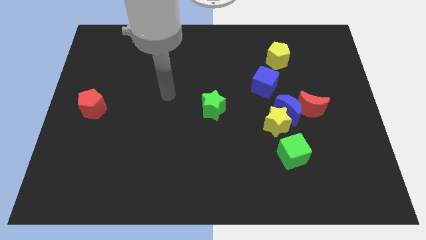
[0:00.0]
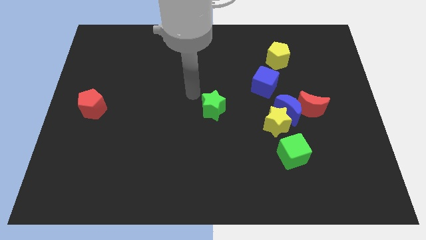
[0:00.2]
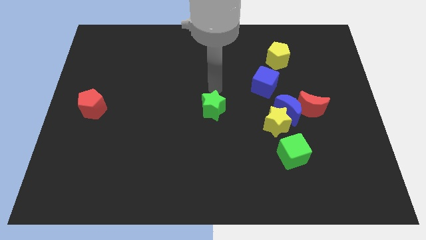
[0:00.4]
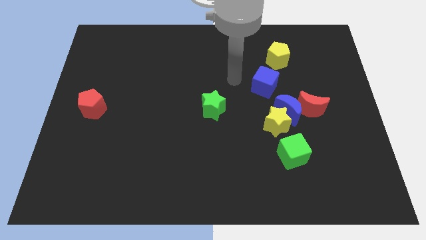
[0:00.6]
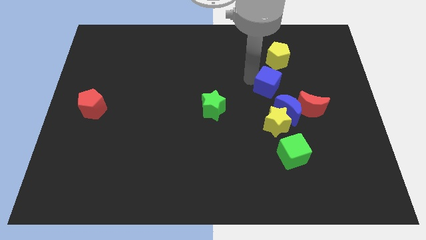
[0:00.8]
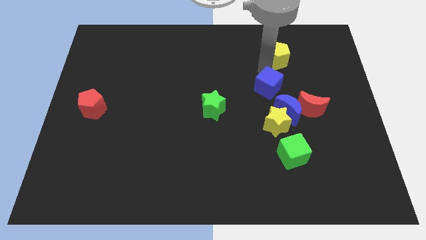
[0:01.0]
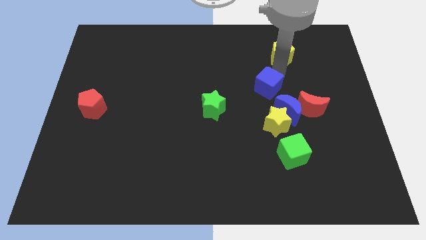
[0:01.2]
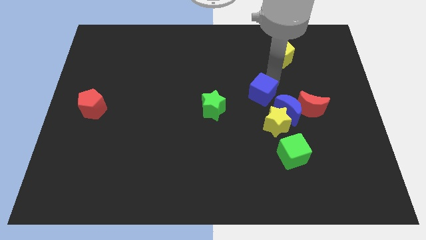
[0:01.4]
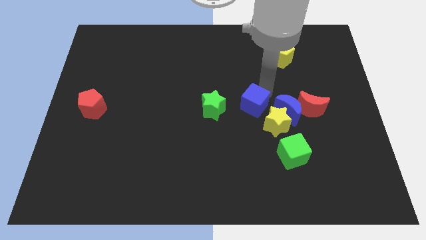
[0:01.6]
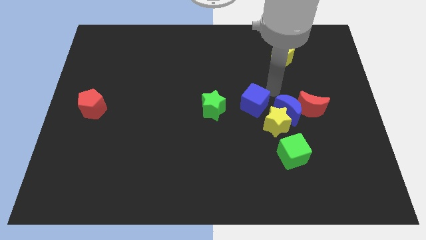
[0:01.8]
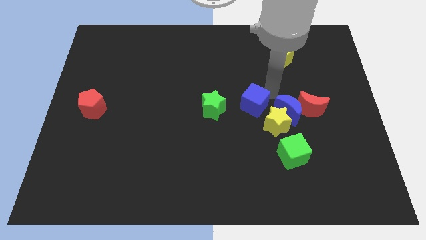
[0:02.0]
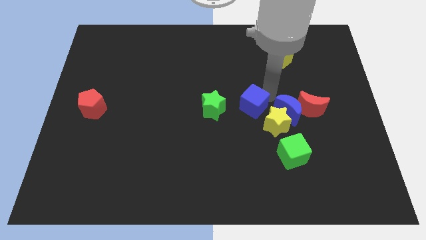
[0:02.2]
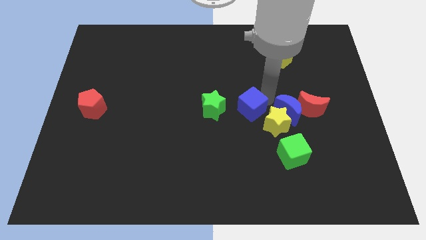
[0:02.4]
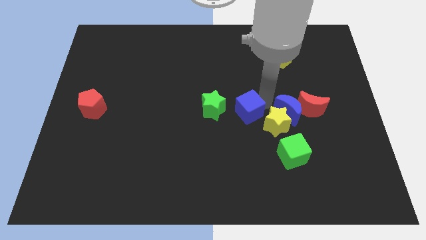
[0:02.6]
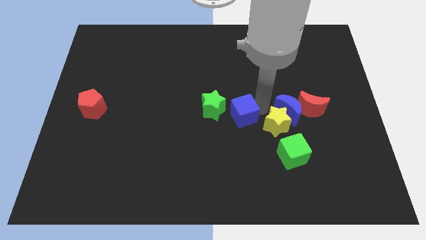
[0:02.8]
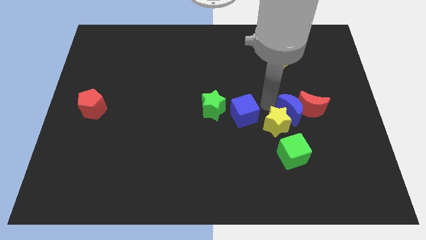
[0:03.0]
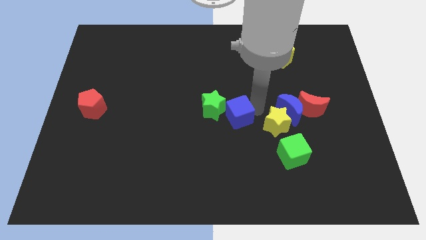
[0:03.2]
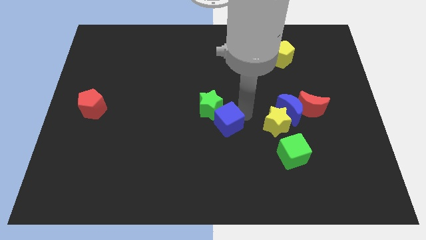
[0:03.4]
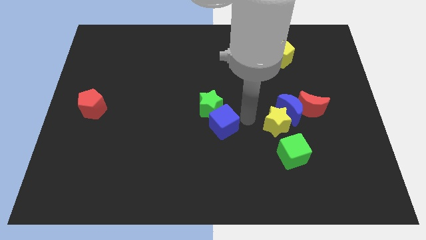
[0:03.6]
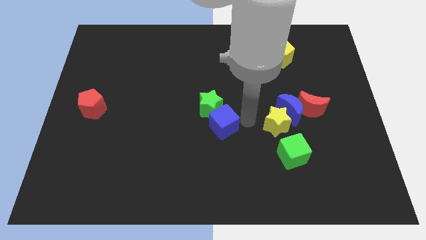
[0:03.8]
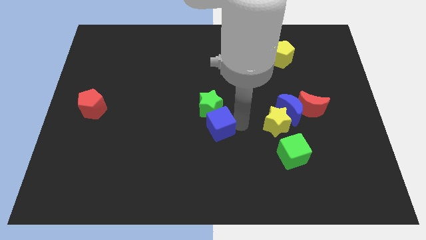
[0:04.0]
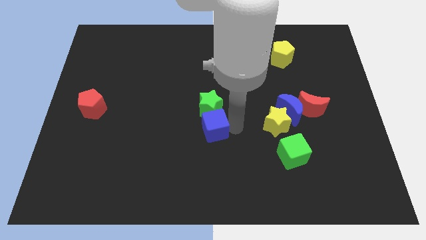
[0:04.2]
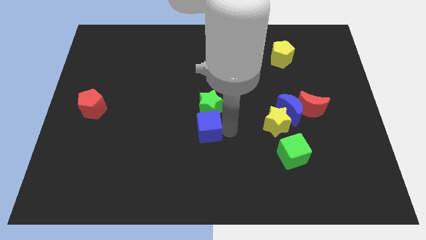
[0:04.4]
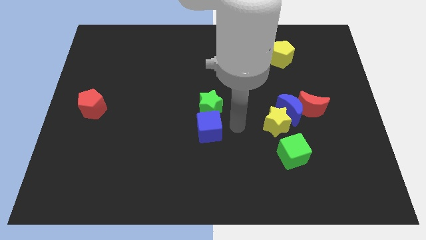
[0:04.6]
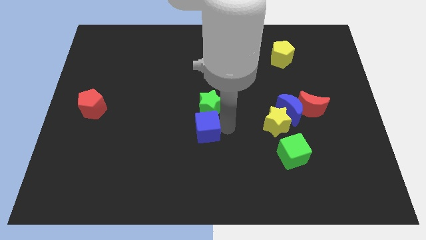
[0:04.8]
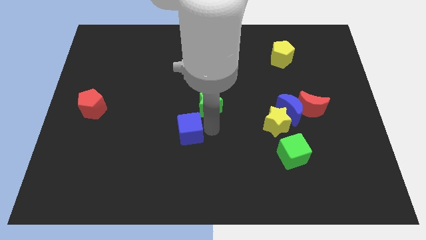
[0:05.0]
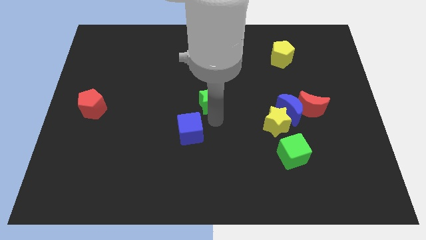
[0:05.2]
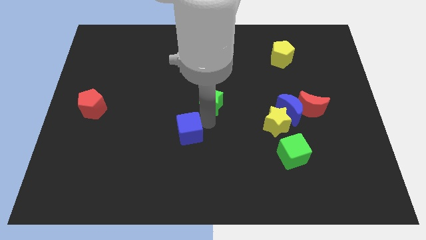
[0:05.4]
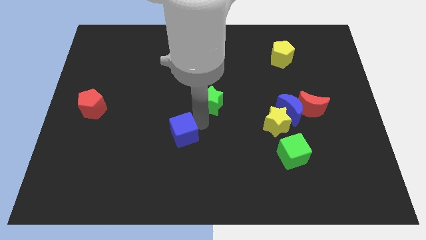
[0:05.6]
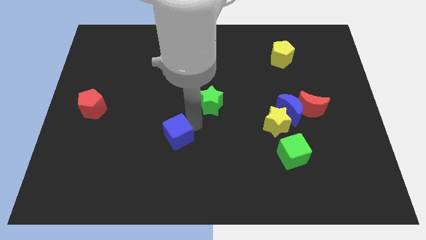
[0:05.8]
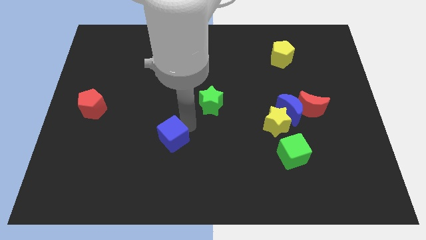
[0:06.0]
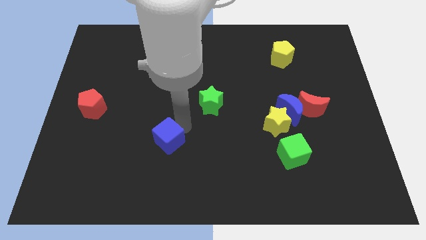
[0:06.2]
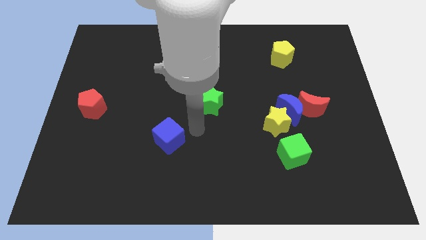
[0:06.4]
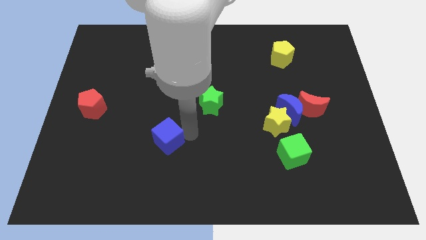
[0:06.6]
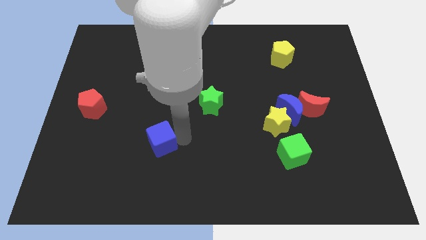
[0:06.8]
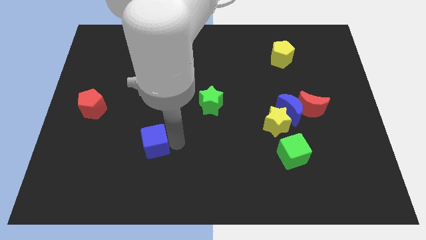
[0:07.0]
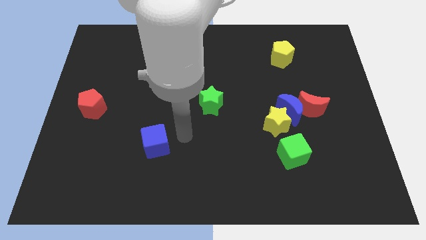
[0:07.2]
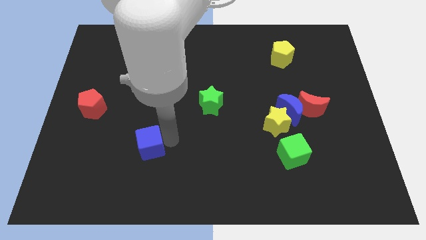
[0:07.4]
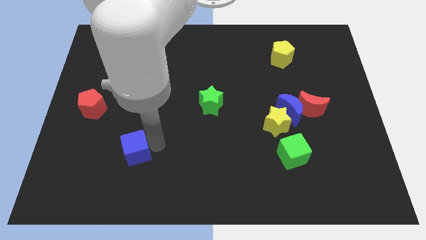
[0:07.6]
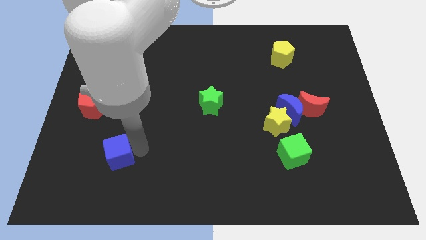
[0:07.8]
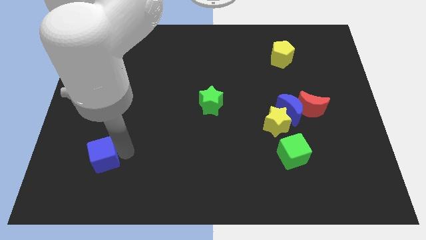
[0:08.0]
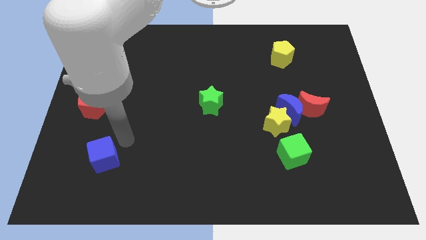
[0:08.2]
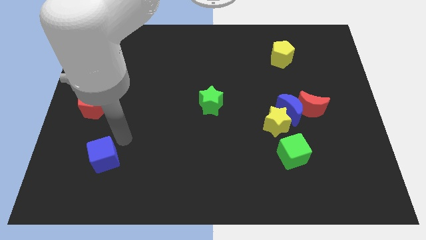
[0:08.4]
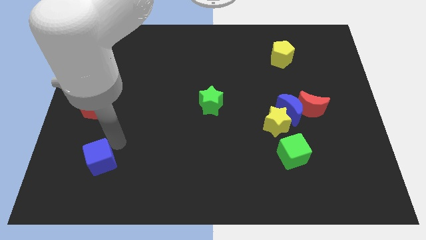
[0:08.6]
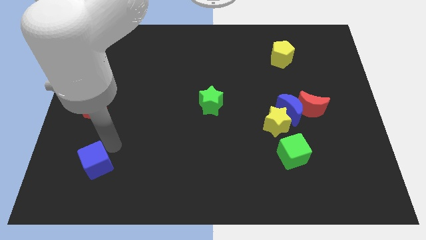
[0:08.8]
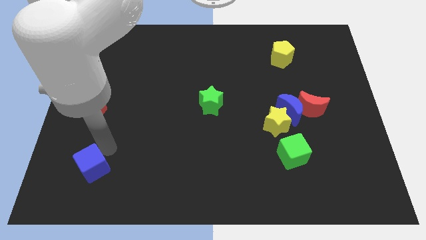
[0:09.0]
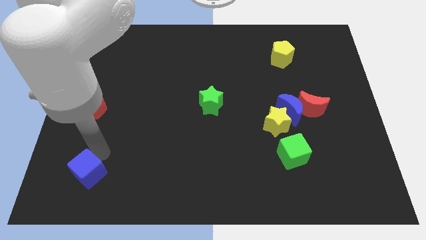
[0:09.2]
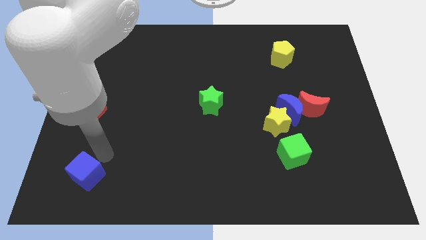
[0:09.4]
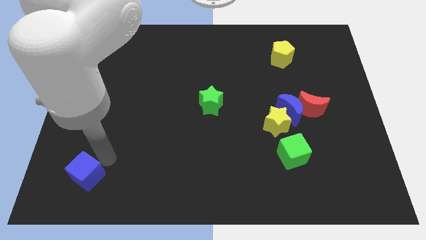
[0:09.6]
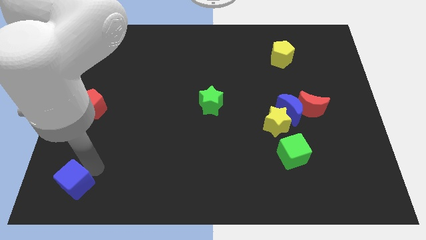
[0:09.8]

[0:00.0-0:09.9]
put the blue cube to the bottom left of the board

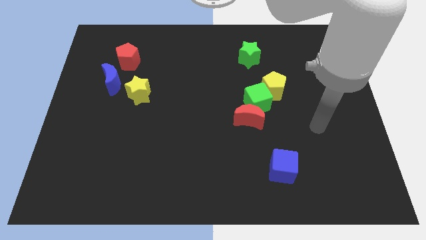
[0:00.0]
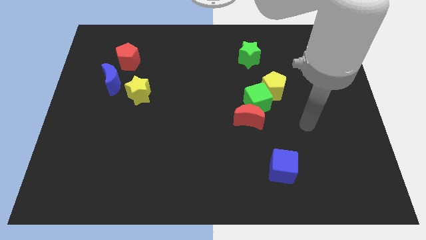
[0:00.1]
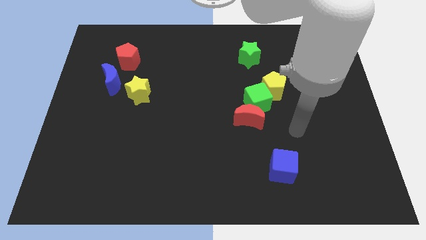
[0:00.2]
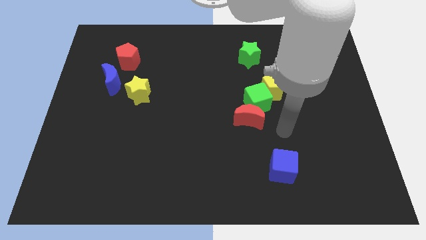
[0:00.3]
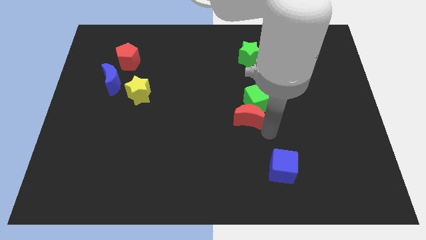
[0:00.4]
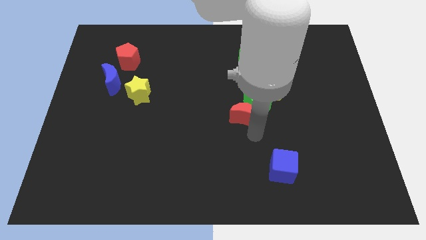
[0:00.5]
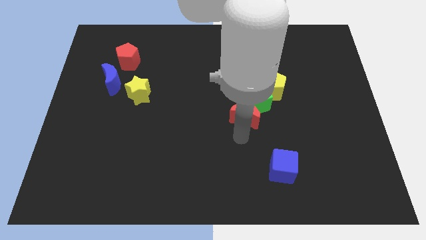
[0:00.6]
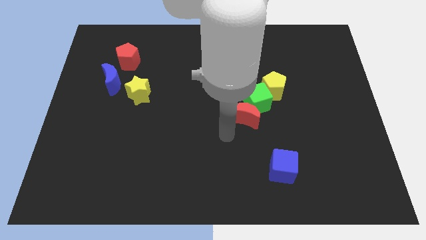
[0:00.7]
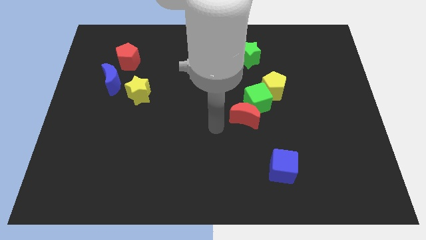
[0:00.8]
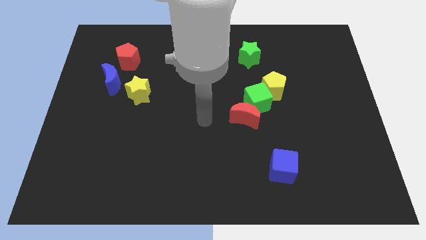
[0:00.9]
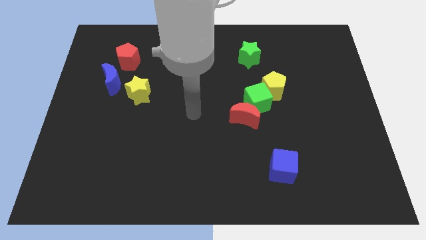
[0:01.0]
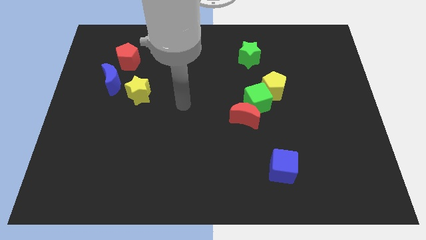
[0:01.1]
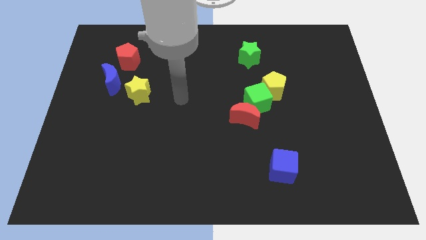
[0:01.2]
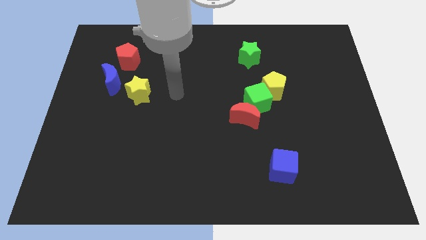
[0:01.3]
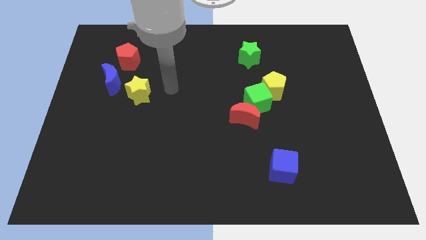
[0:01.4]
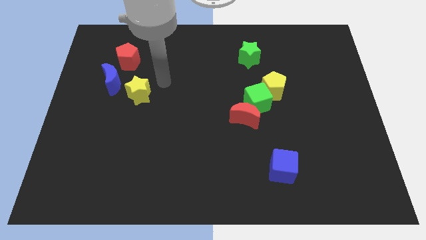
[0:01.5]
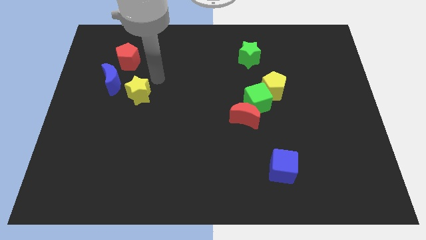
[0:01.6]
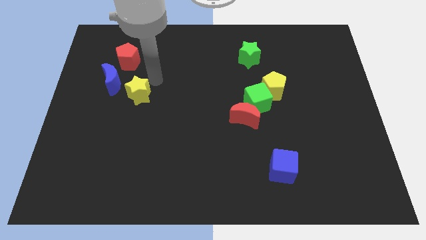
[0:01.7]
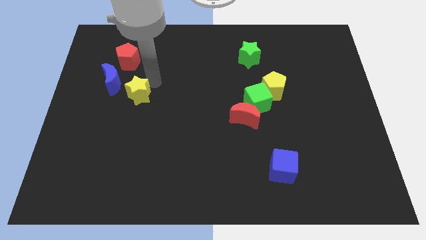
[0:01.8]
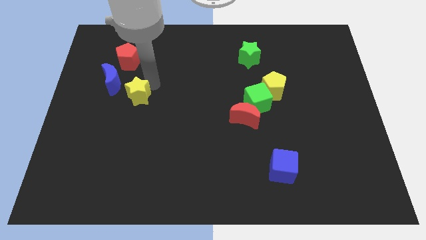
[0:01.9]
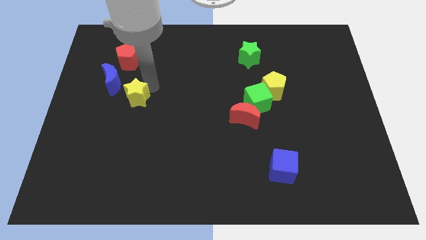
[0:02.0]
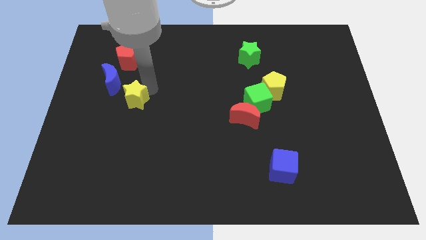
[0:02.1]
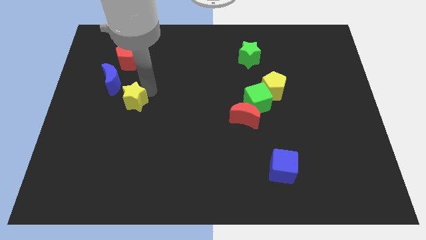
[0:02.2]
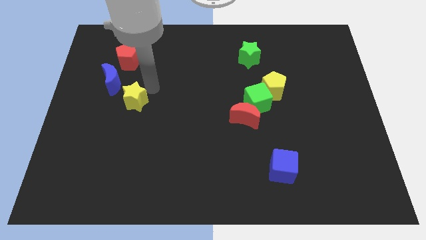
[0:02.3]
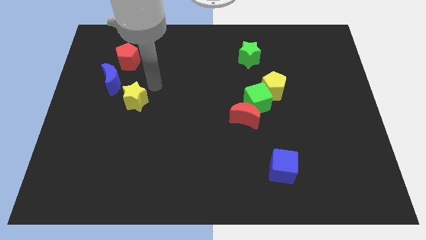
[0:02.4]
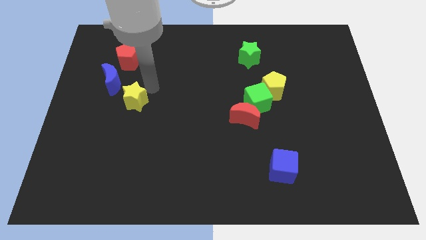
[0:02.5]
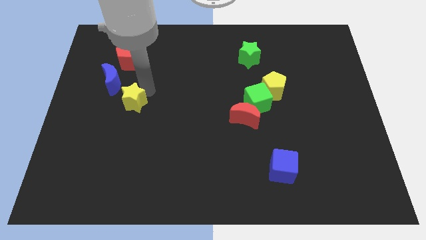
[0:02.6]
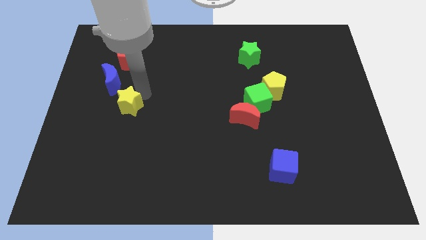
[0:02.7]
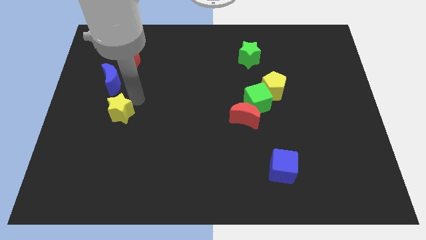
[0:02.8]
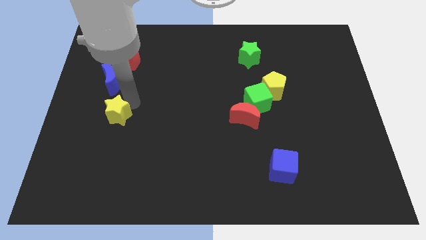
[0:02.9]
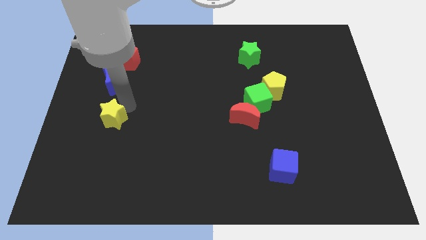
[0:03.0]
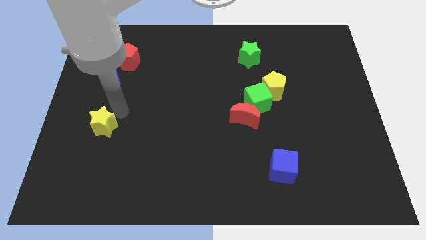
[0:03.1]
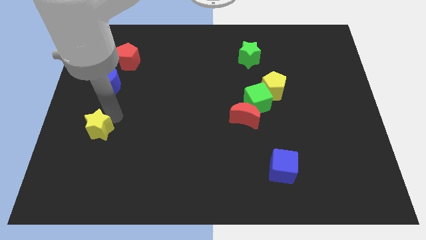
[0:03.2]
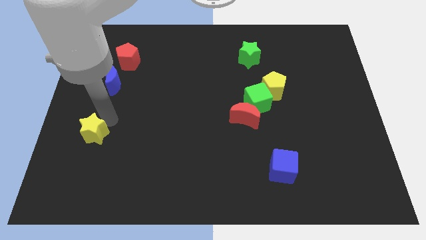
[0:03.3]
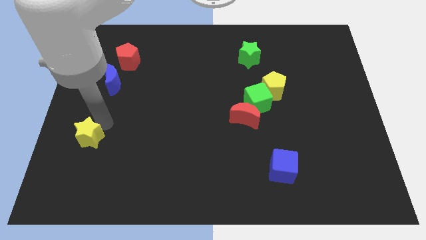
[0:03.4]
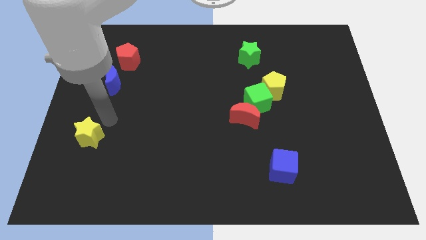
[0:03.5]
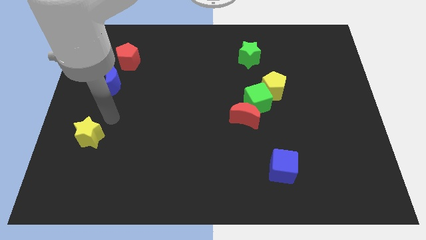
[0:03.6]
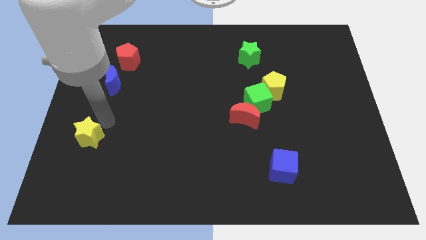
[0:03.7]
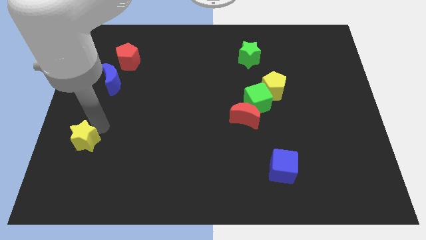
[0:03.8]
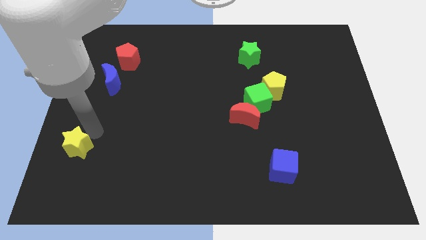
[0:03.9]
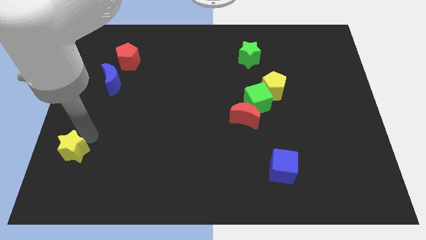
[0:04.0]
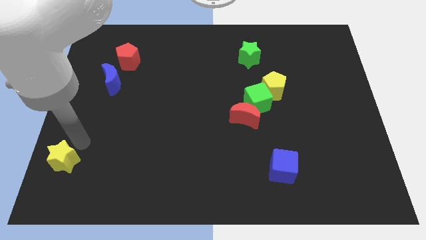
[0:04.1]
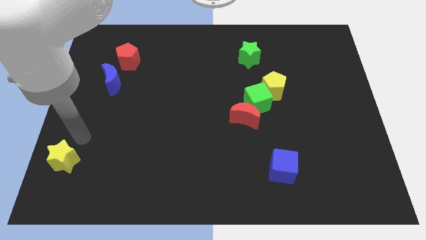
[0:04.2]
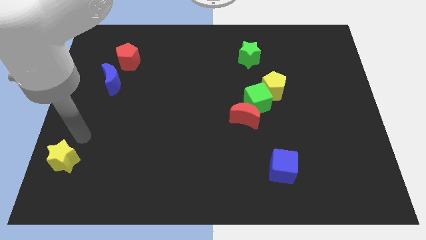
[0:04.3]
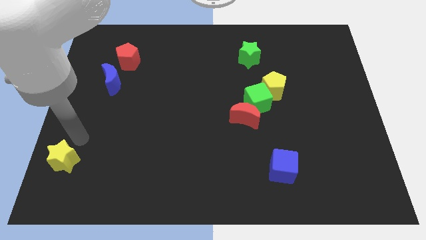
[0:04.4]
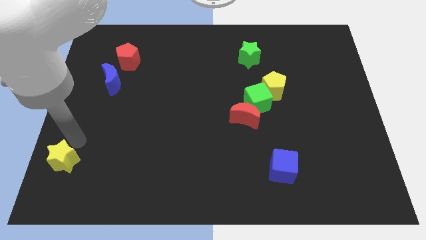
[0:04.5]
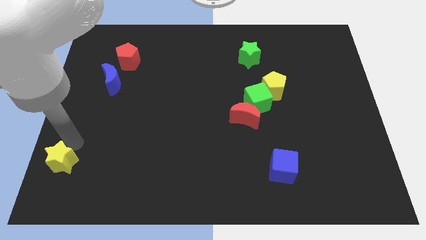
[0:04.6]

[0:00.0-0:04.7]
push the yellow star to the bottom left corner
